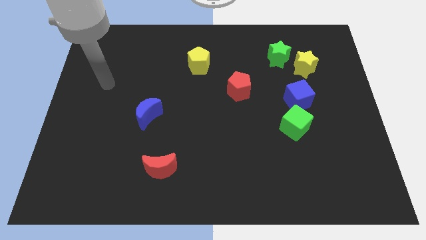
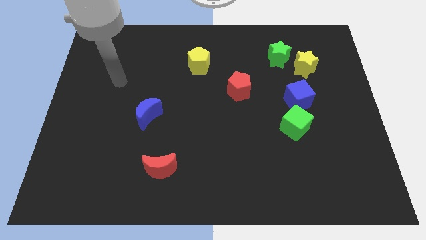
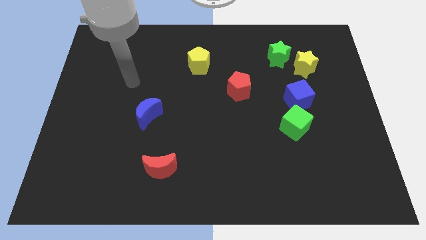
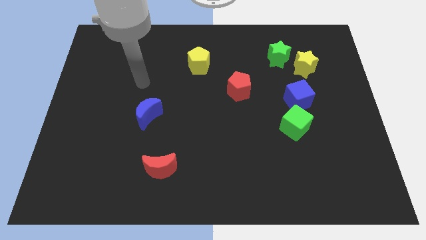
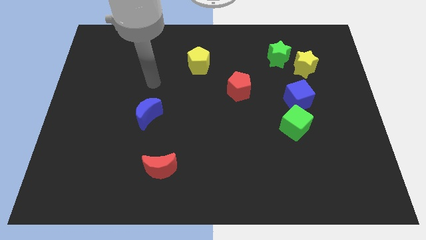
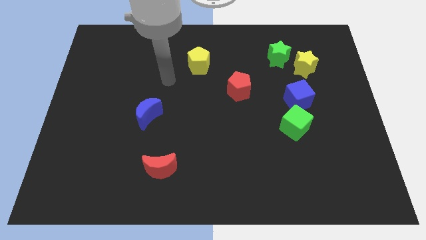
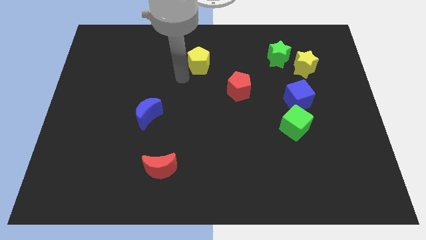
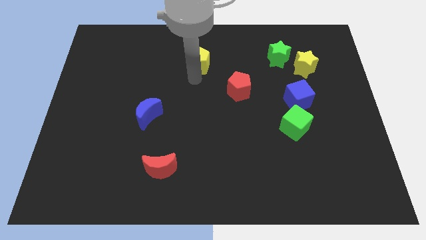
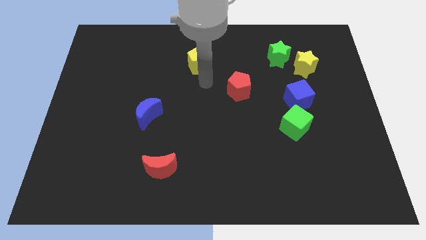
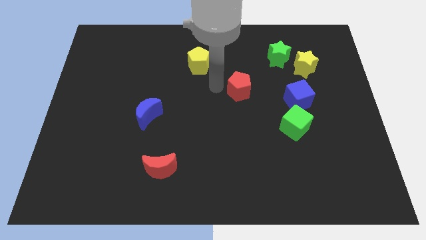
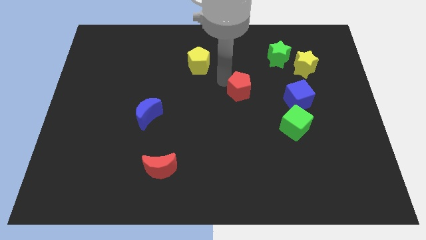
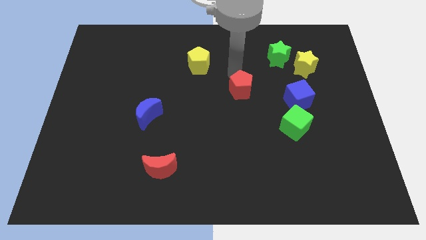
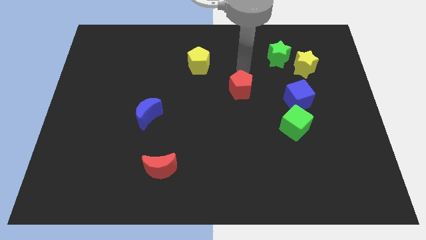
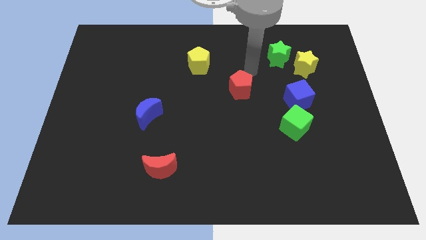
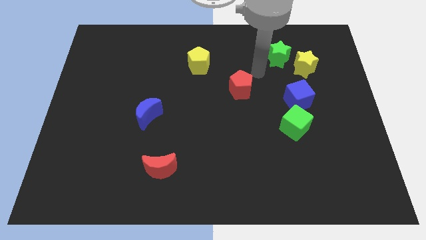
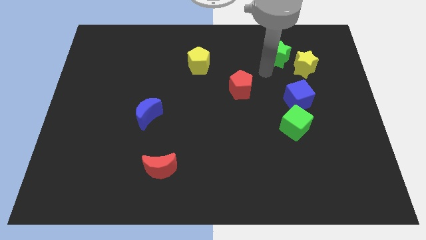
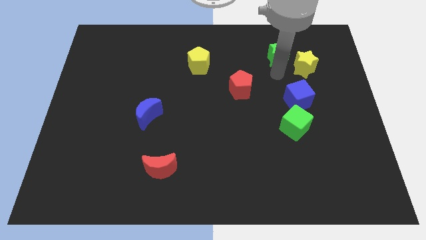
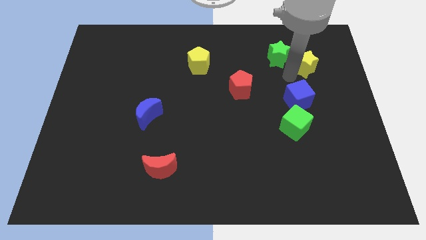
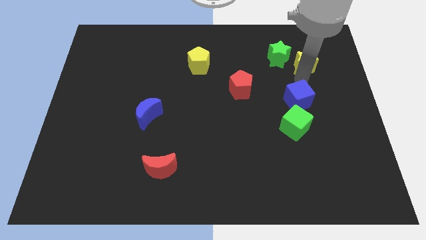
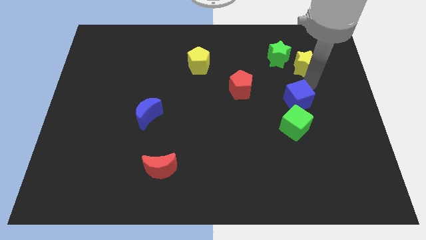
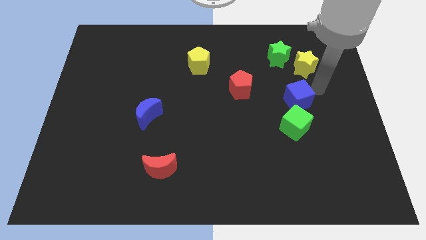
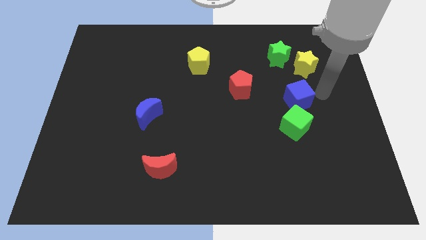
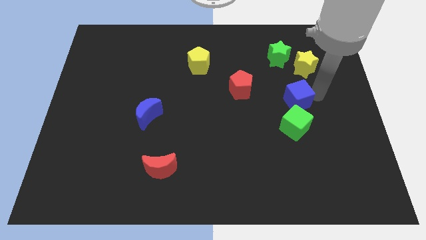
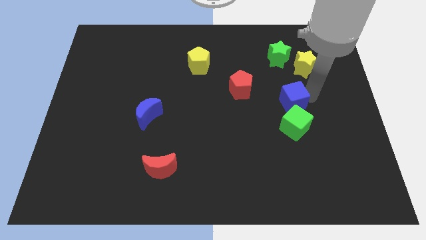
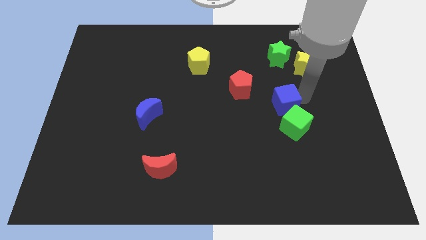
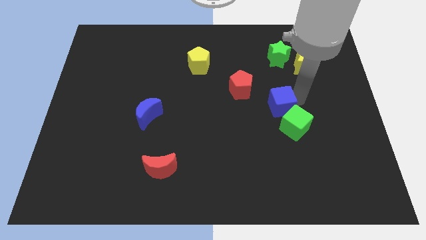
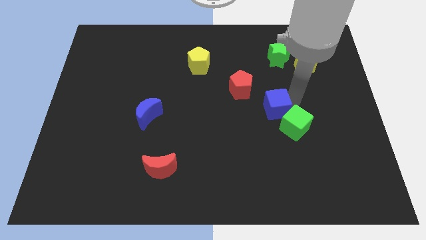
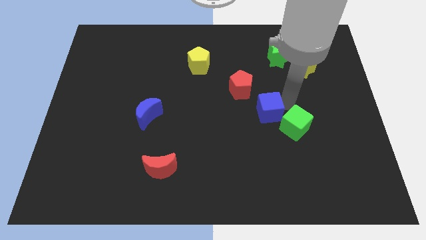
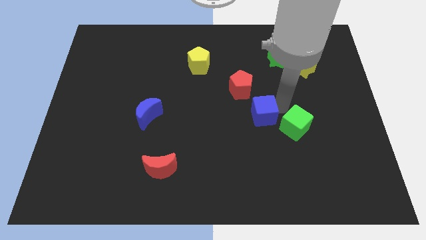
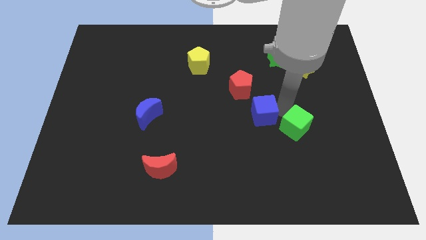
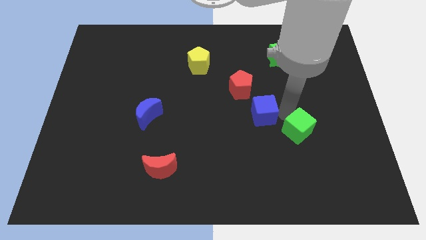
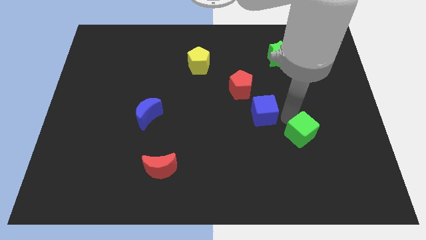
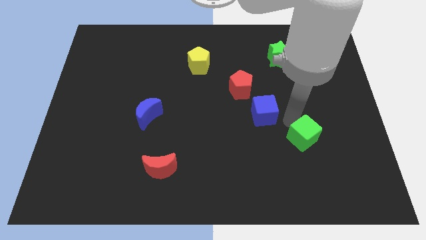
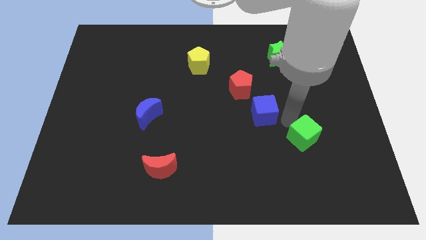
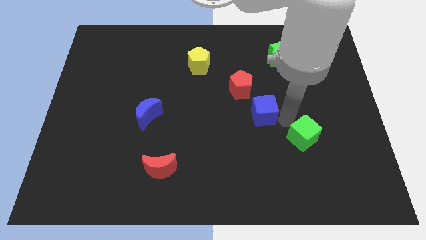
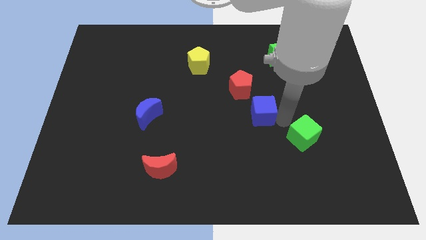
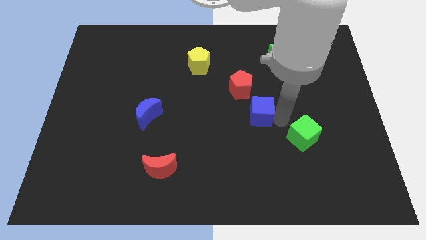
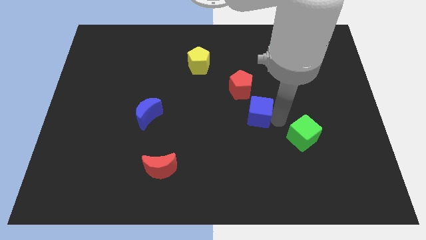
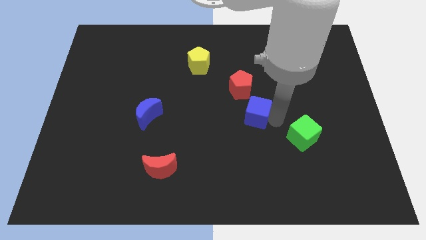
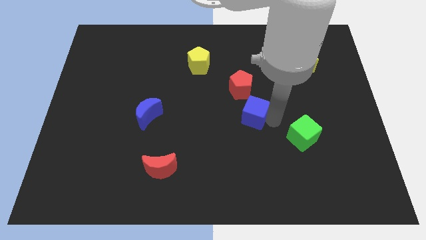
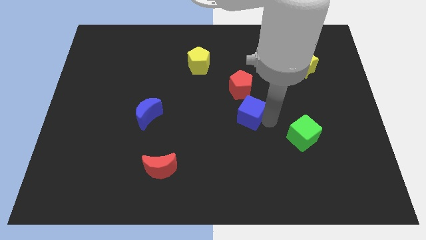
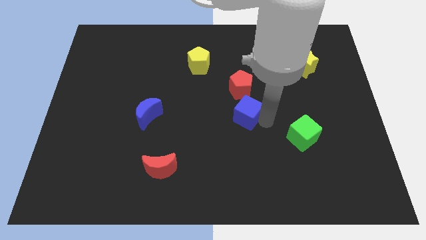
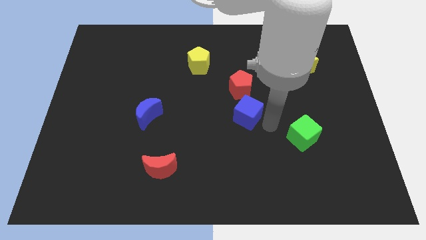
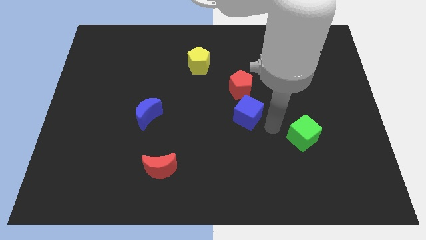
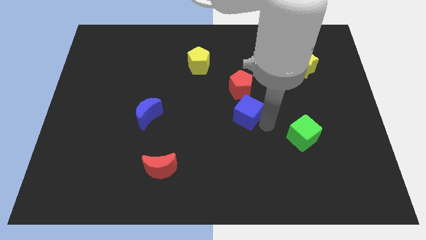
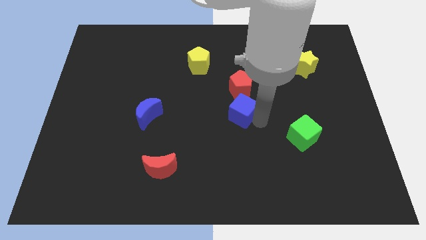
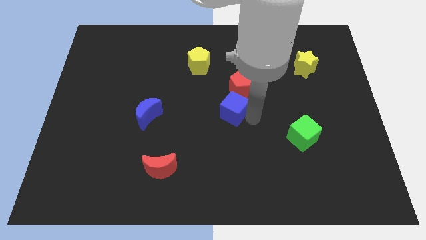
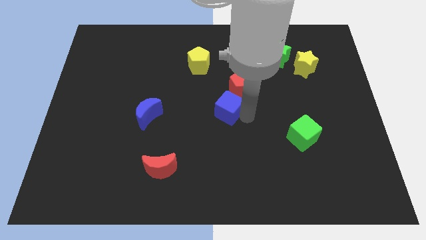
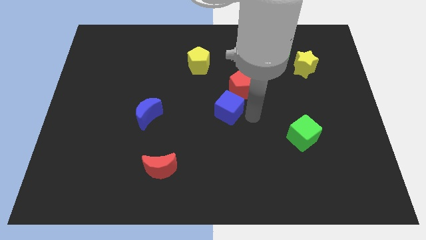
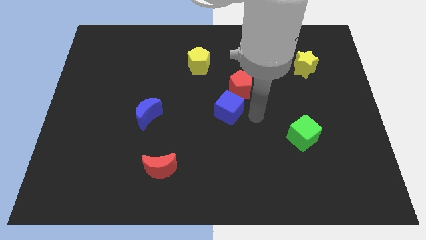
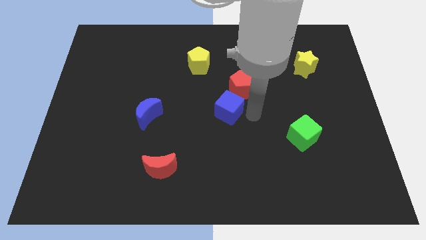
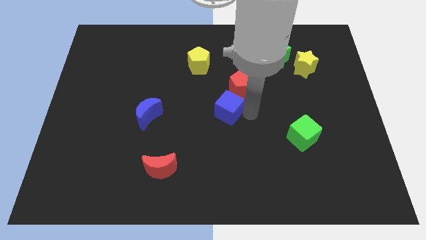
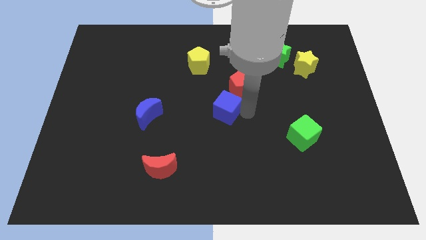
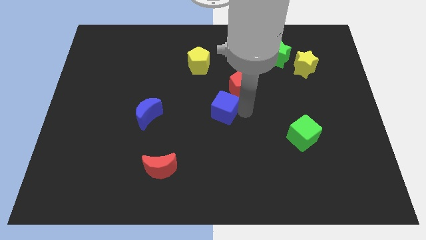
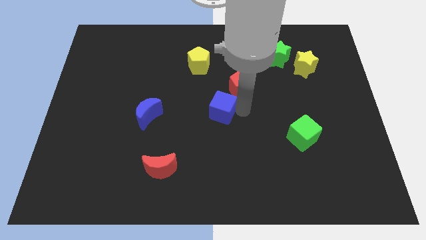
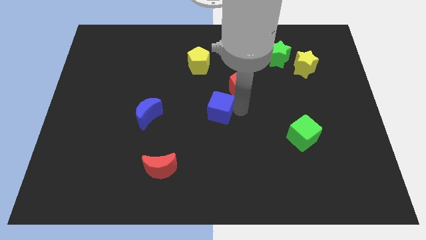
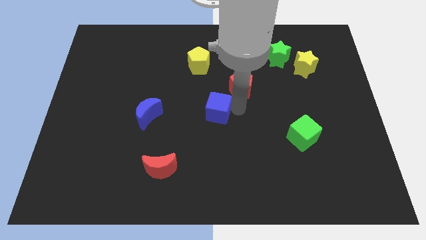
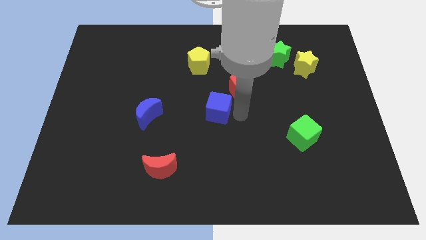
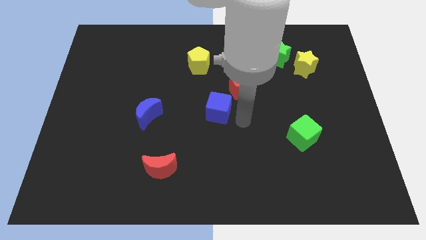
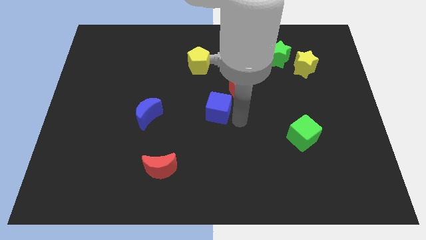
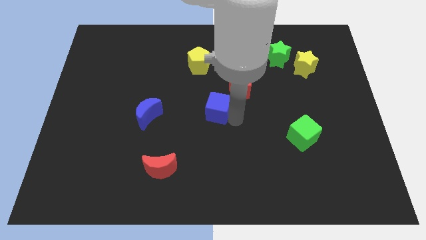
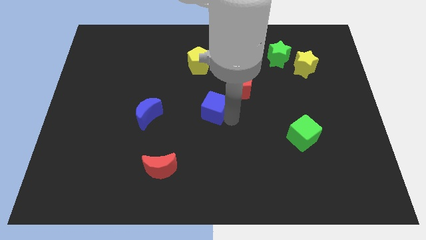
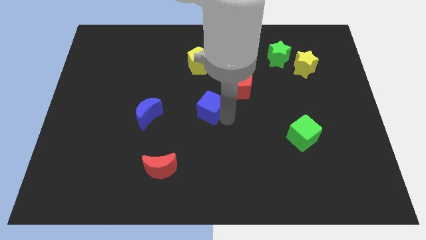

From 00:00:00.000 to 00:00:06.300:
slide the blue cube left

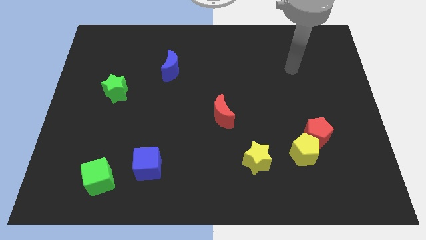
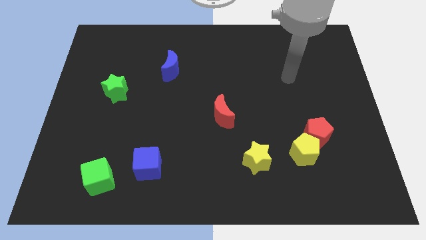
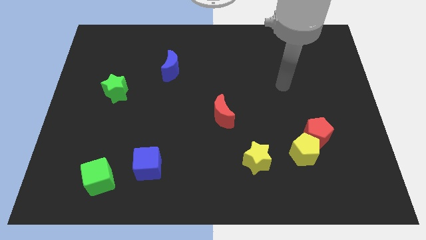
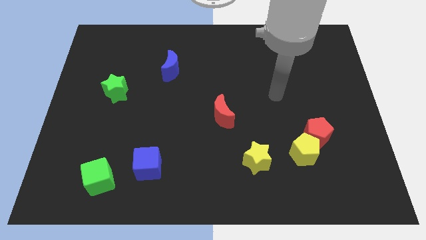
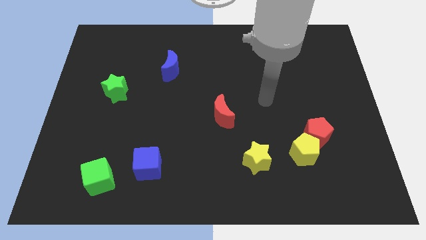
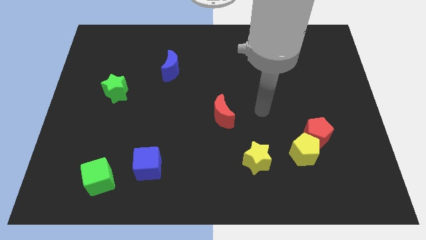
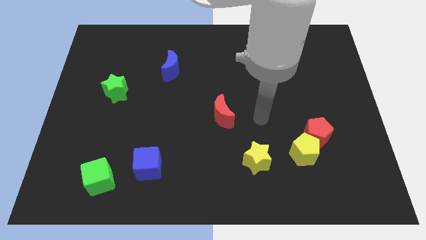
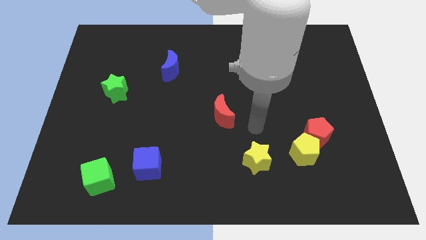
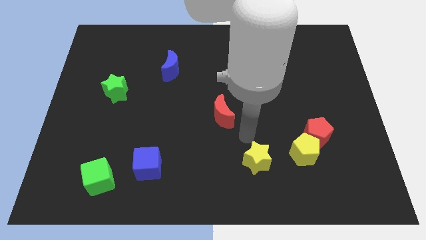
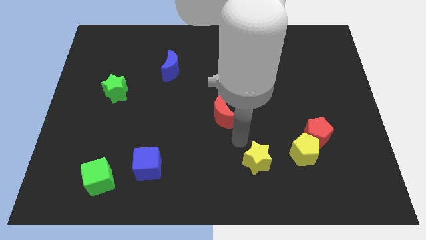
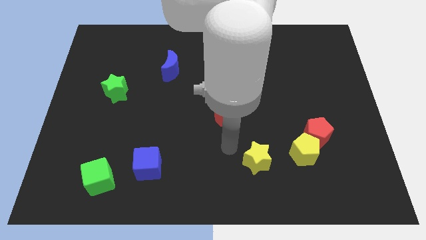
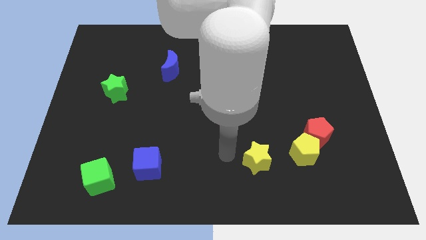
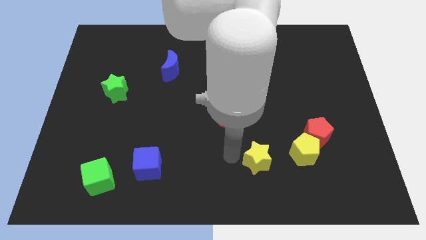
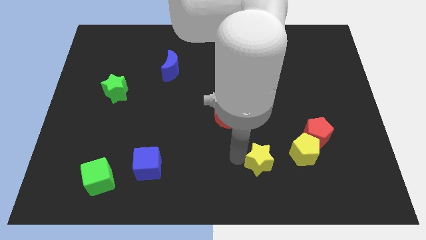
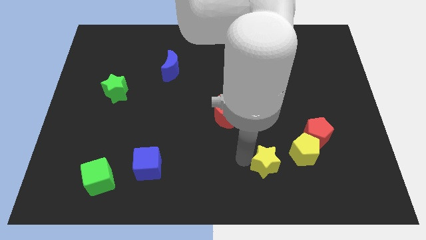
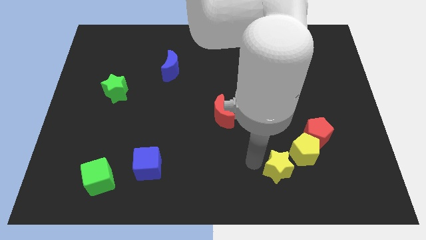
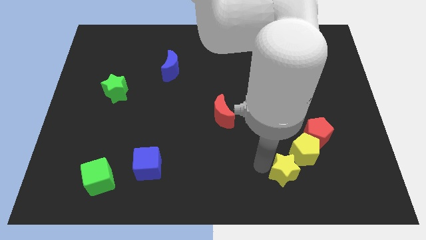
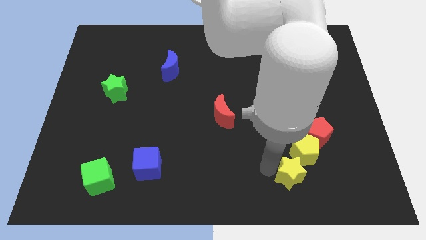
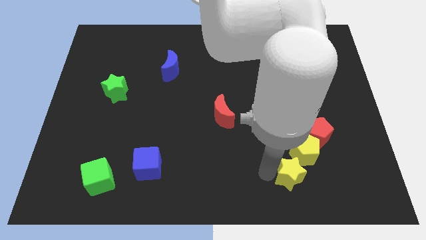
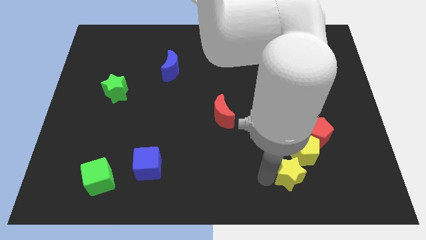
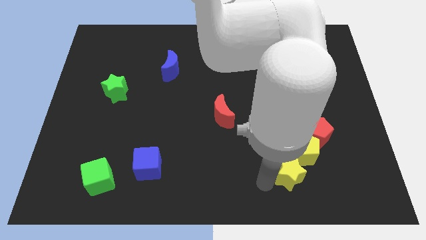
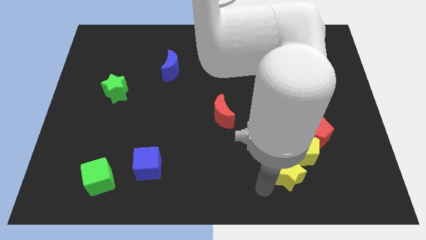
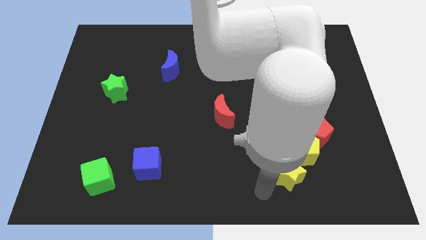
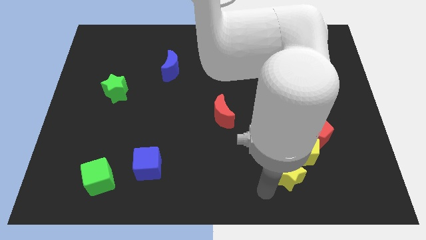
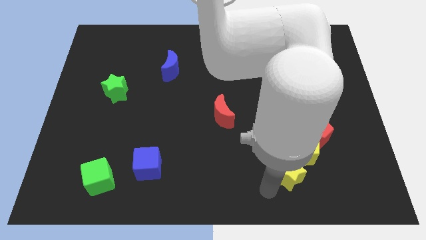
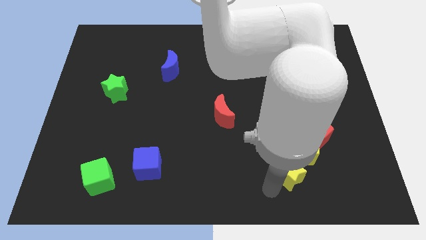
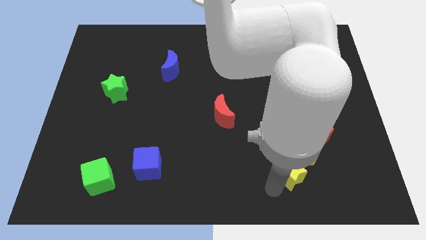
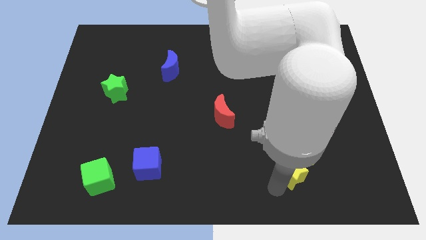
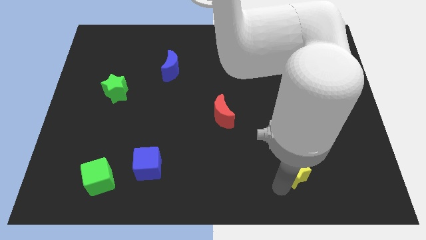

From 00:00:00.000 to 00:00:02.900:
slightly slide the yellow star right
